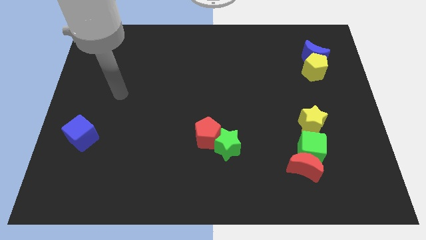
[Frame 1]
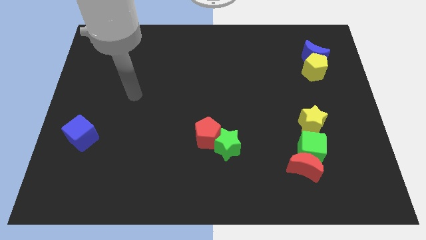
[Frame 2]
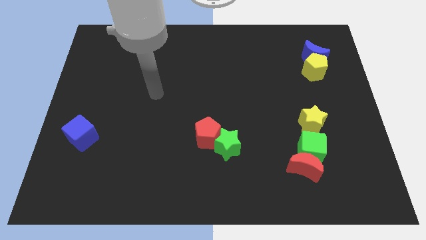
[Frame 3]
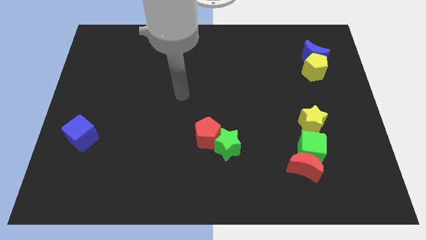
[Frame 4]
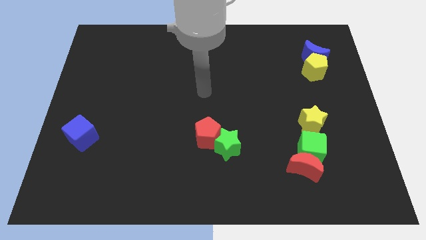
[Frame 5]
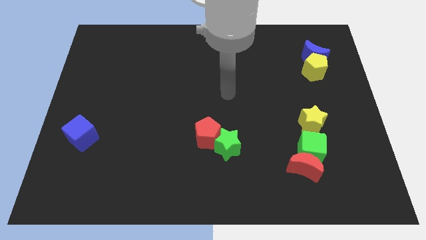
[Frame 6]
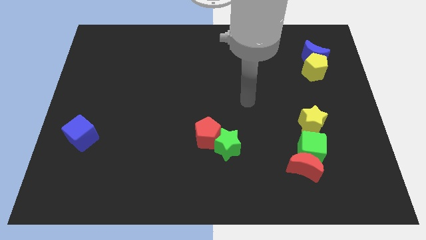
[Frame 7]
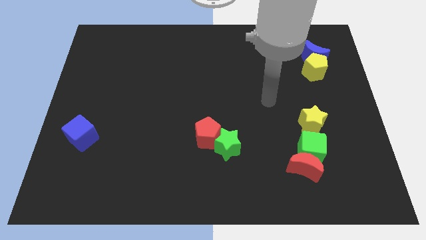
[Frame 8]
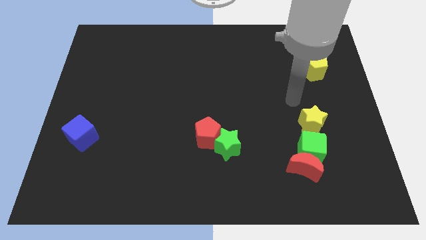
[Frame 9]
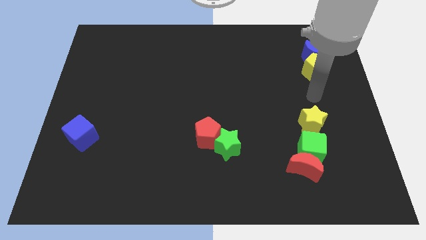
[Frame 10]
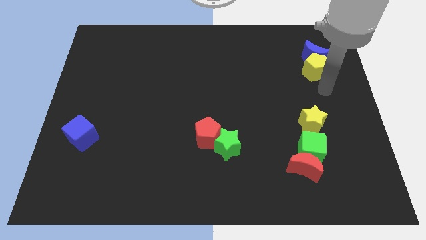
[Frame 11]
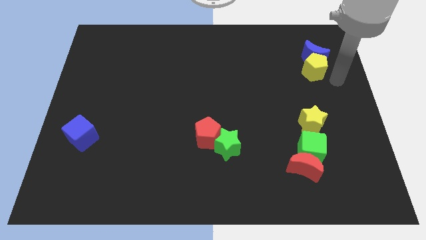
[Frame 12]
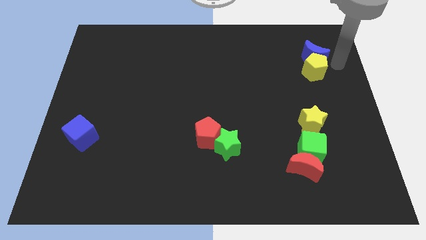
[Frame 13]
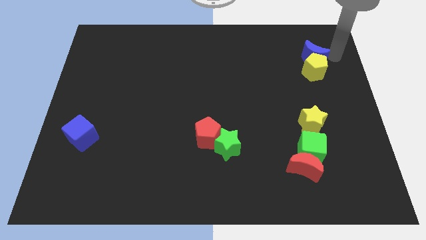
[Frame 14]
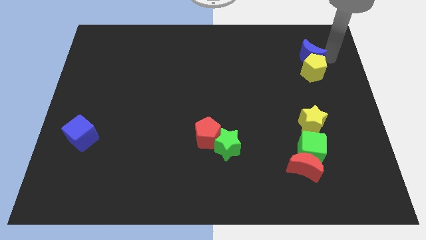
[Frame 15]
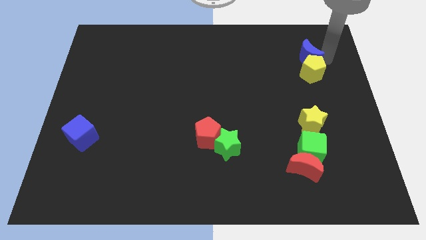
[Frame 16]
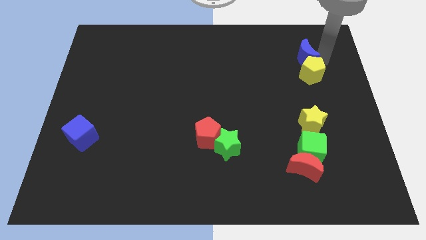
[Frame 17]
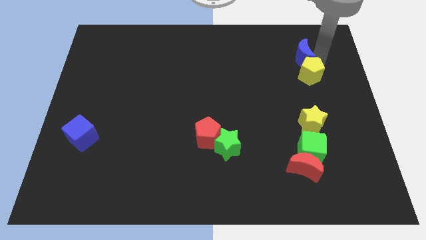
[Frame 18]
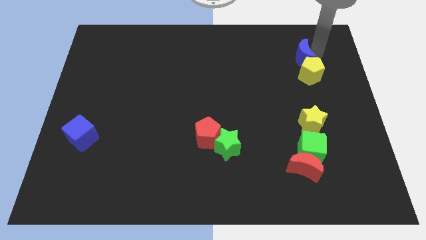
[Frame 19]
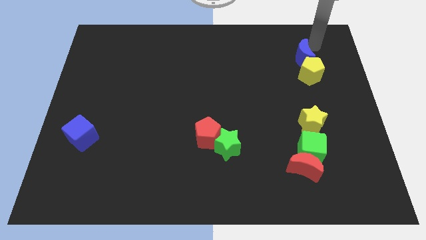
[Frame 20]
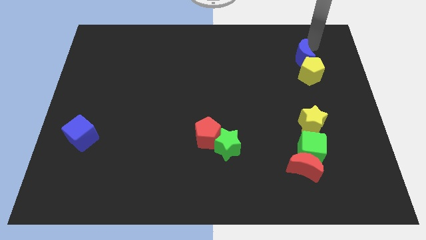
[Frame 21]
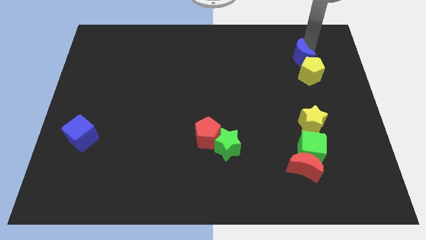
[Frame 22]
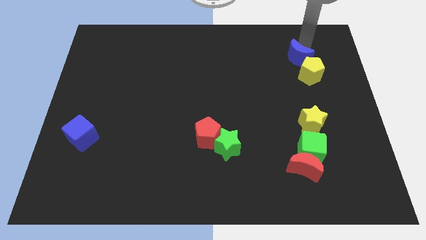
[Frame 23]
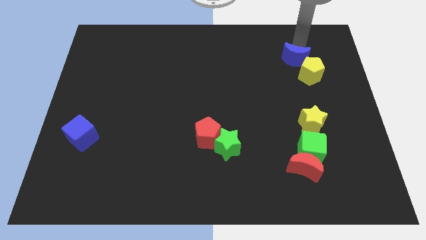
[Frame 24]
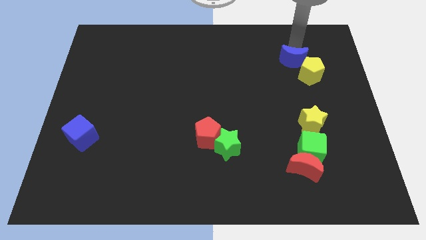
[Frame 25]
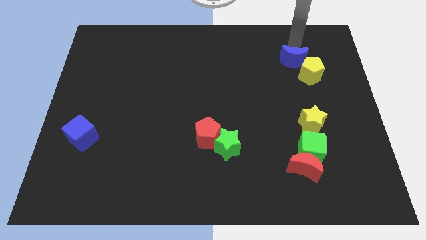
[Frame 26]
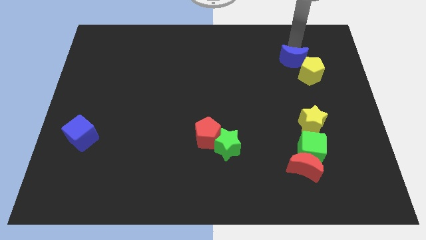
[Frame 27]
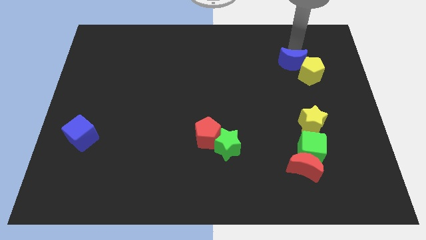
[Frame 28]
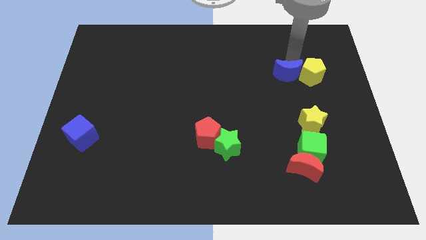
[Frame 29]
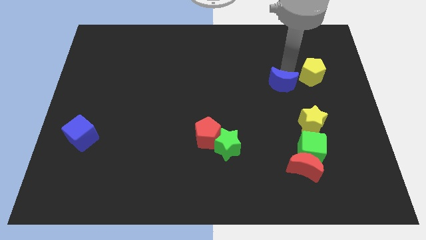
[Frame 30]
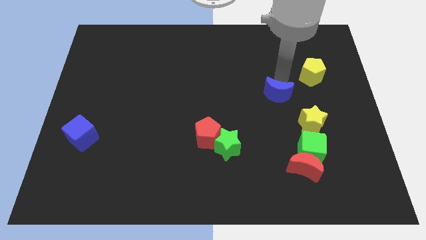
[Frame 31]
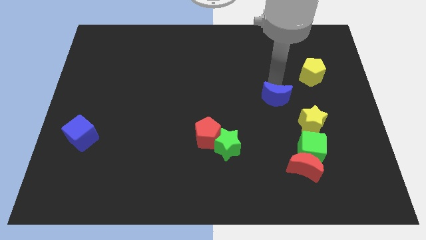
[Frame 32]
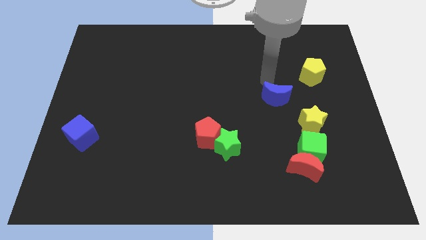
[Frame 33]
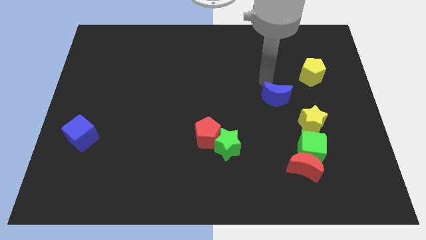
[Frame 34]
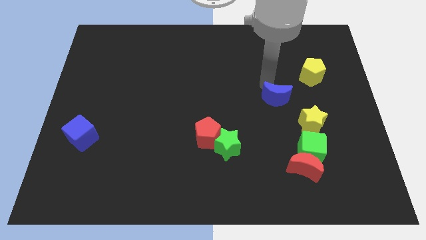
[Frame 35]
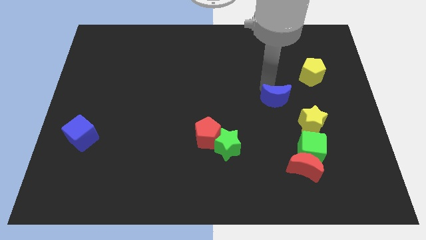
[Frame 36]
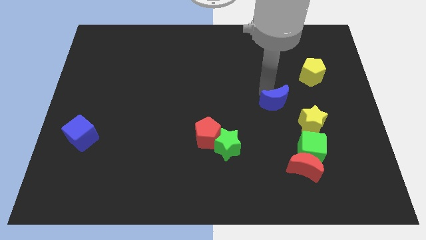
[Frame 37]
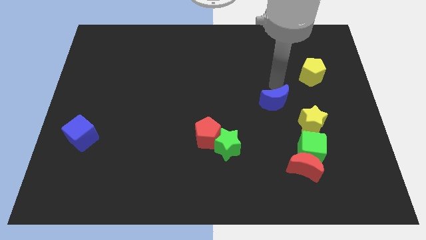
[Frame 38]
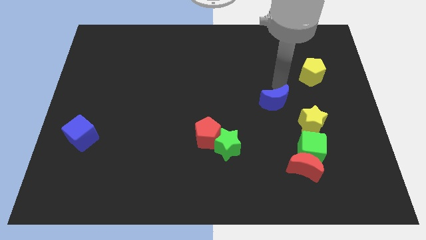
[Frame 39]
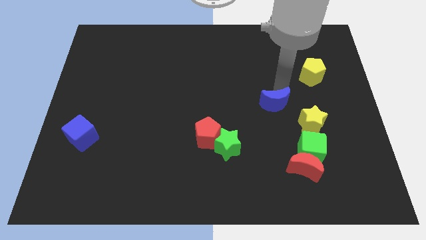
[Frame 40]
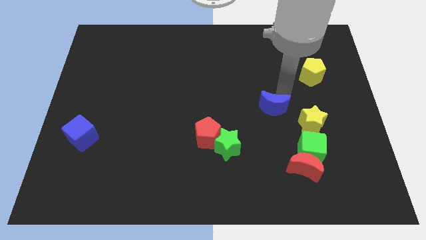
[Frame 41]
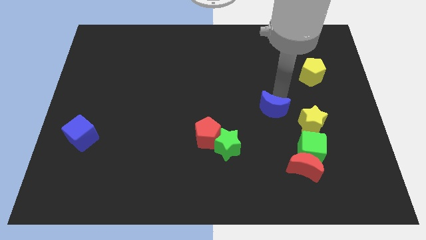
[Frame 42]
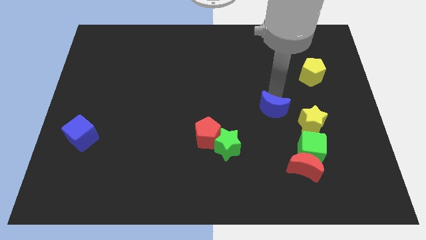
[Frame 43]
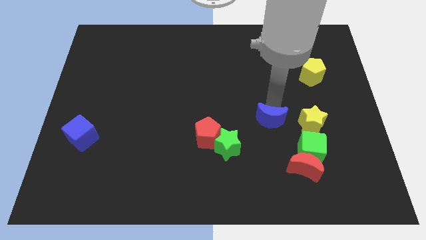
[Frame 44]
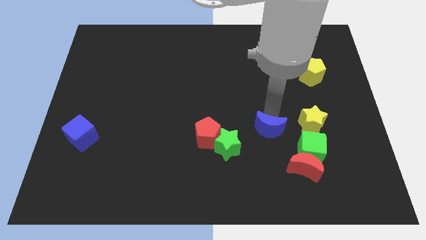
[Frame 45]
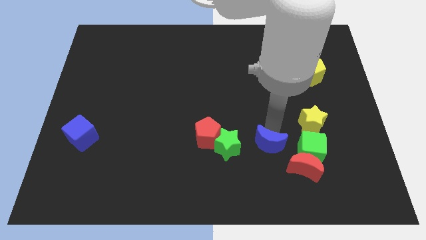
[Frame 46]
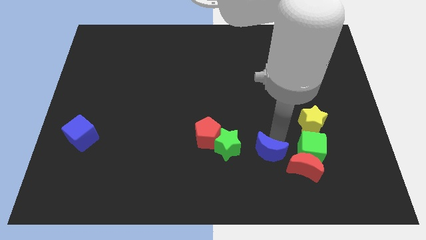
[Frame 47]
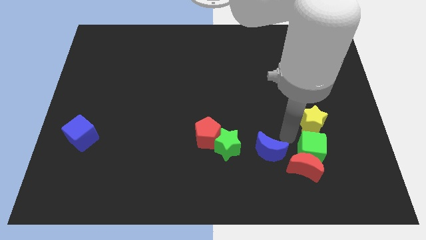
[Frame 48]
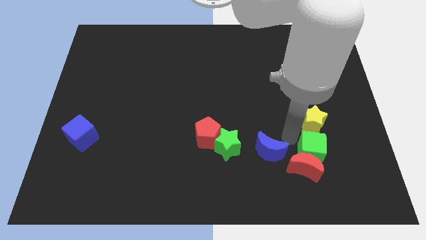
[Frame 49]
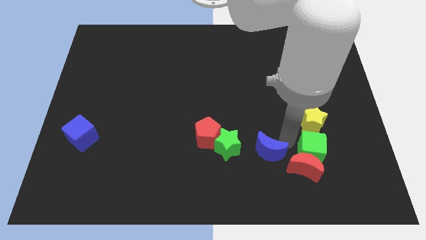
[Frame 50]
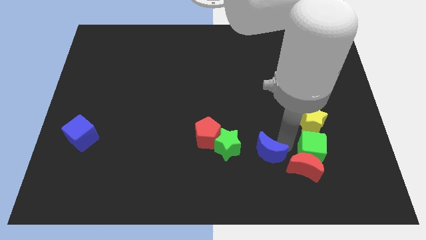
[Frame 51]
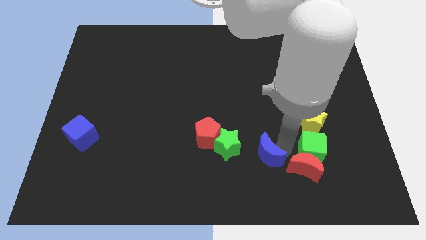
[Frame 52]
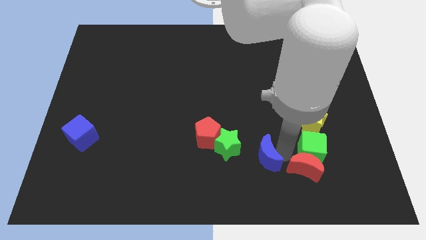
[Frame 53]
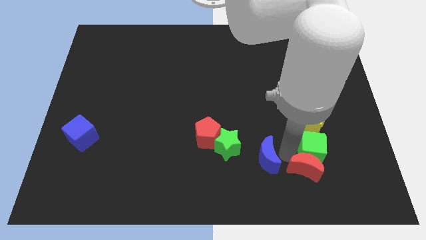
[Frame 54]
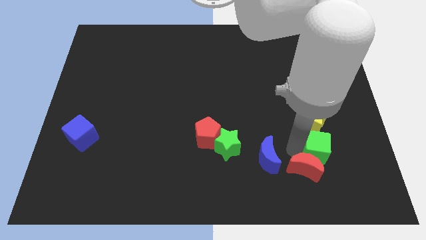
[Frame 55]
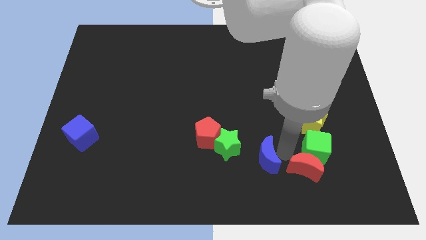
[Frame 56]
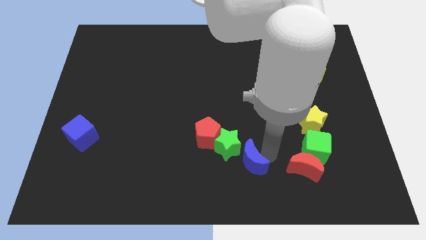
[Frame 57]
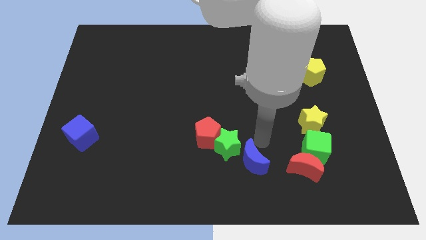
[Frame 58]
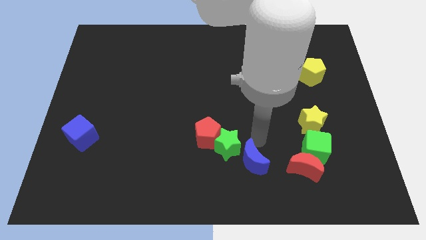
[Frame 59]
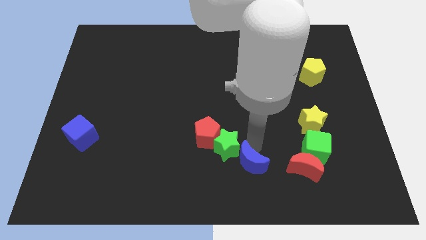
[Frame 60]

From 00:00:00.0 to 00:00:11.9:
put the blue moon to the bottom
